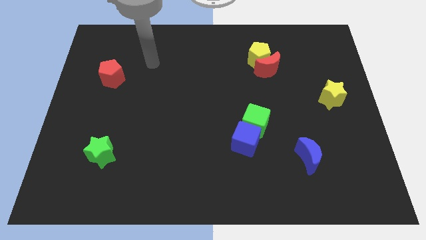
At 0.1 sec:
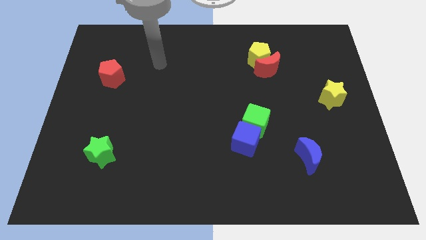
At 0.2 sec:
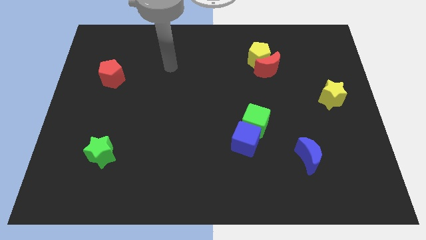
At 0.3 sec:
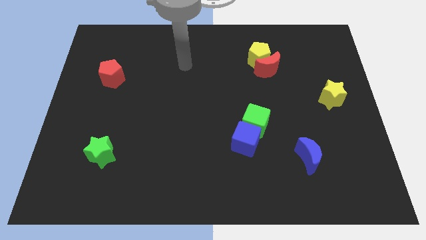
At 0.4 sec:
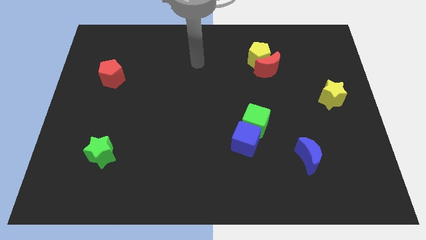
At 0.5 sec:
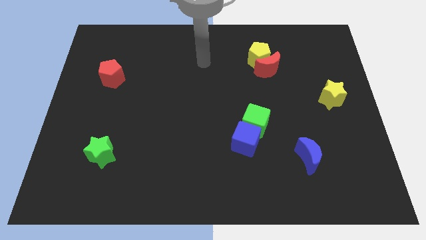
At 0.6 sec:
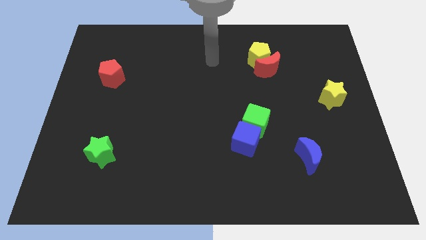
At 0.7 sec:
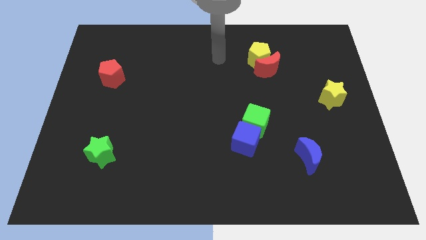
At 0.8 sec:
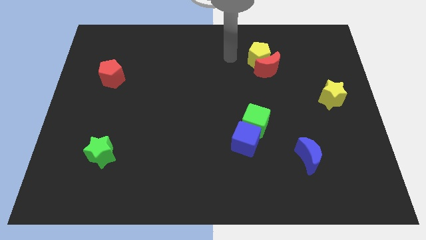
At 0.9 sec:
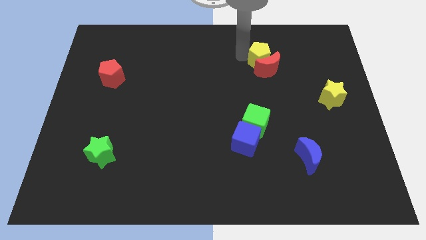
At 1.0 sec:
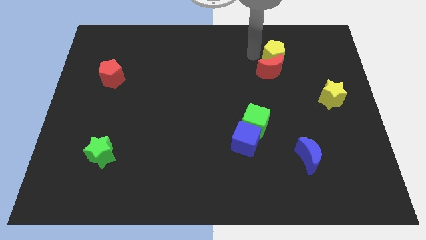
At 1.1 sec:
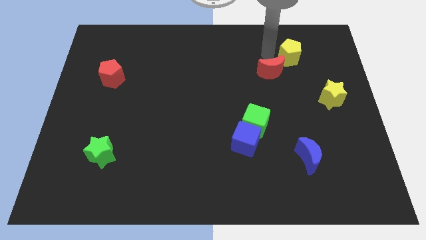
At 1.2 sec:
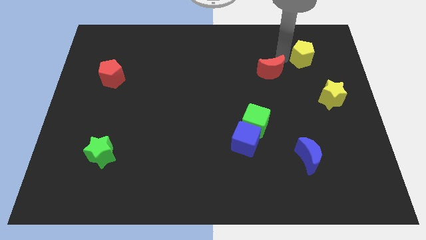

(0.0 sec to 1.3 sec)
pull the red moon apart from the yellow pentagon

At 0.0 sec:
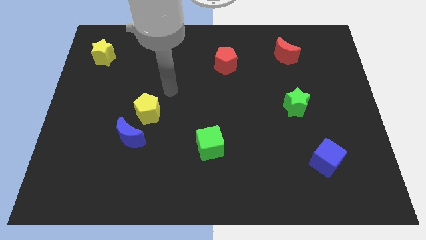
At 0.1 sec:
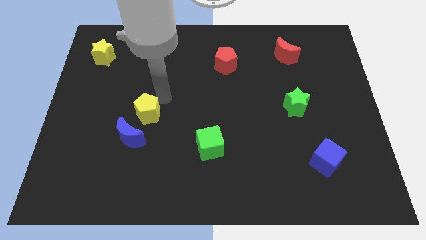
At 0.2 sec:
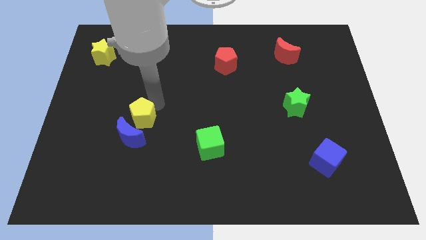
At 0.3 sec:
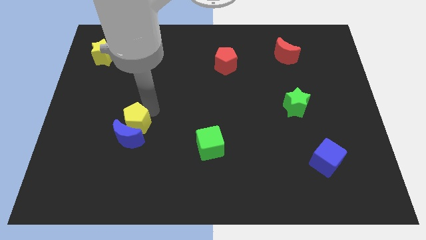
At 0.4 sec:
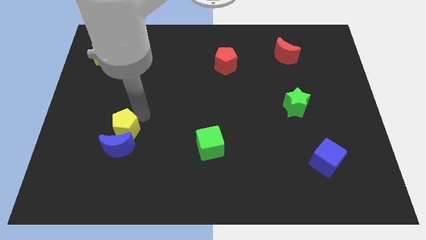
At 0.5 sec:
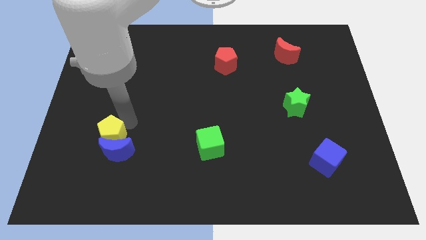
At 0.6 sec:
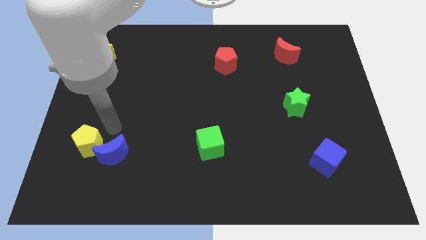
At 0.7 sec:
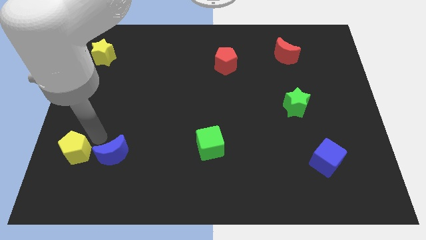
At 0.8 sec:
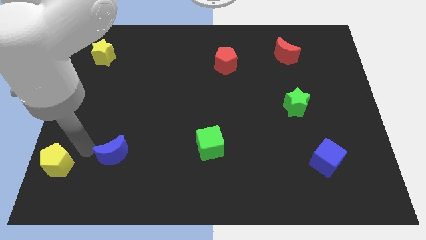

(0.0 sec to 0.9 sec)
pull the blue moon apart from the yellow pentagon

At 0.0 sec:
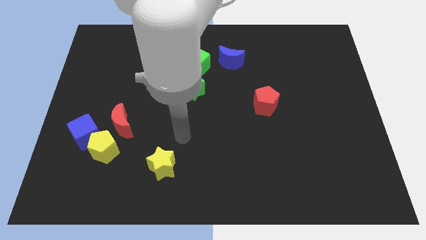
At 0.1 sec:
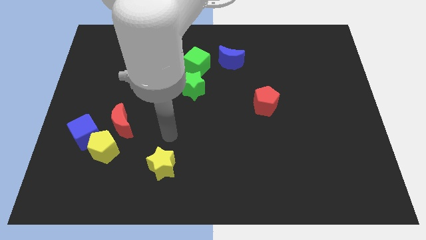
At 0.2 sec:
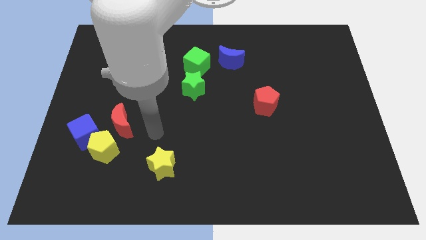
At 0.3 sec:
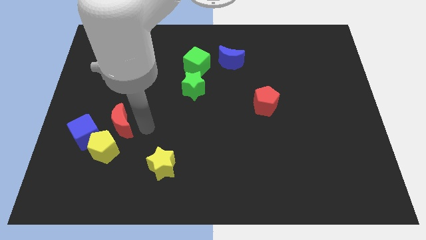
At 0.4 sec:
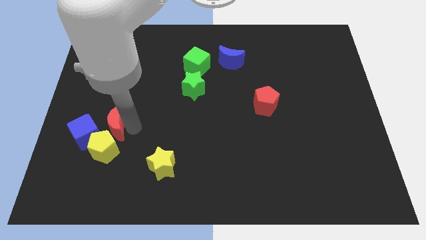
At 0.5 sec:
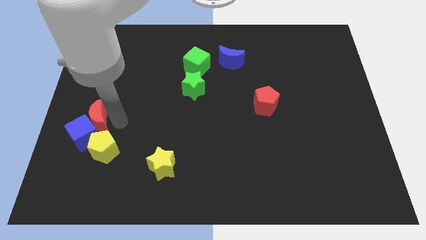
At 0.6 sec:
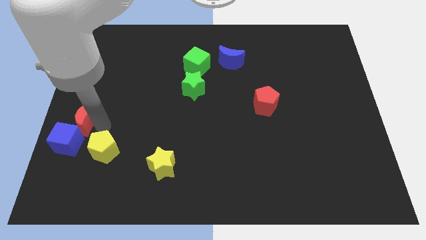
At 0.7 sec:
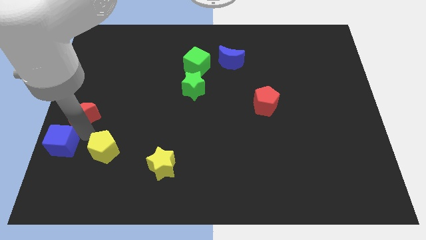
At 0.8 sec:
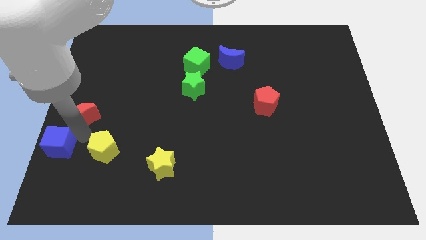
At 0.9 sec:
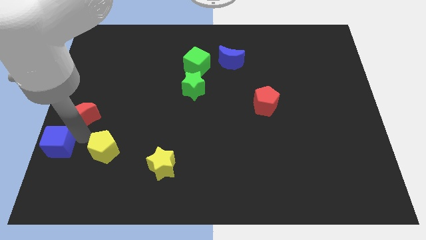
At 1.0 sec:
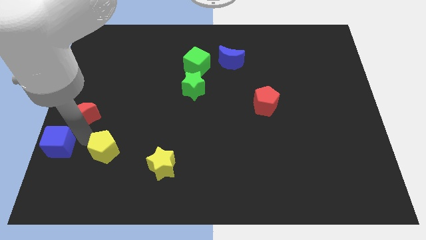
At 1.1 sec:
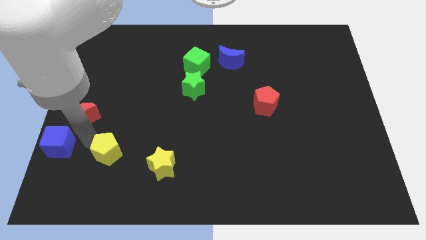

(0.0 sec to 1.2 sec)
move the yellow pentagon away from the blue cube and red moon

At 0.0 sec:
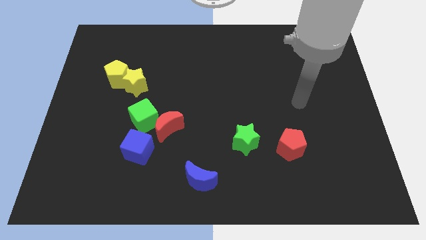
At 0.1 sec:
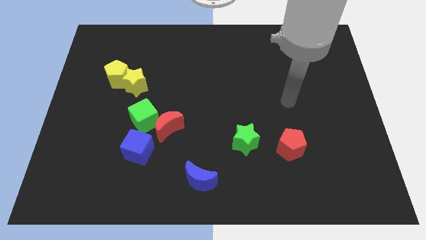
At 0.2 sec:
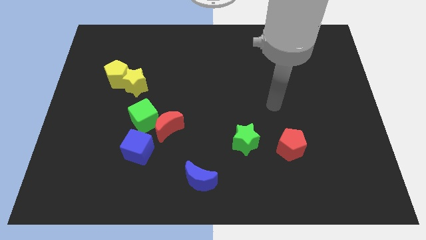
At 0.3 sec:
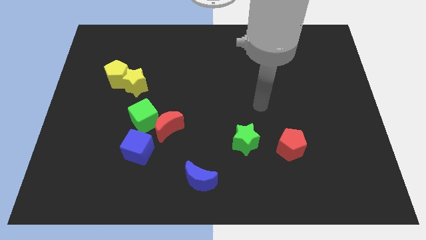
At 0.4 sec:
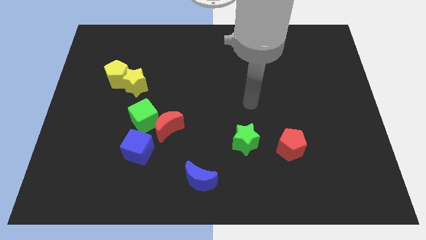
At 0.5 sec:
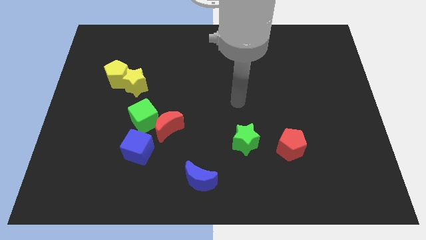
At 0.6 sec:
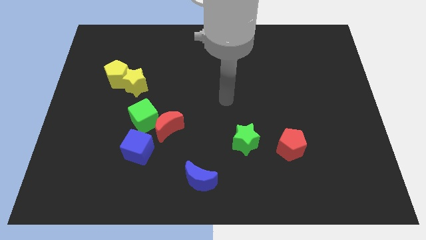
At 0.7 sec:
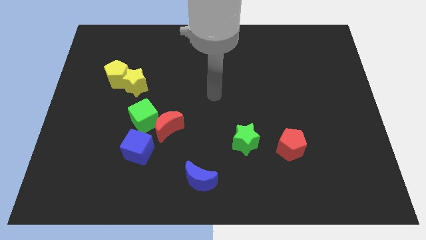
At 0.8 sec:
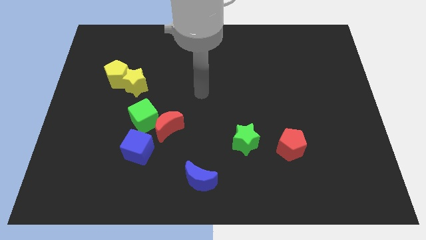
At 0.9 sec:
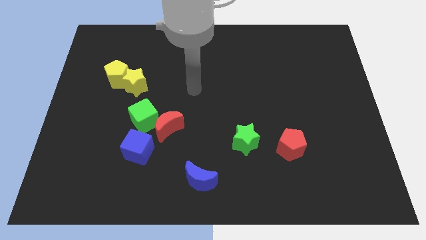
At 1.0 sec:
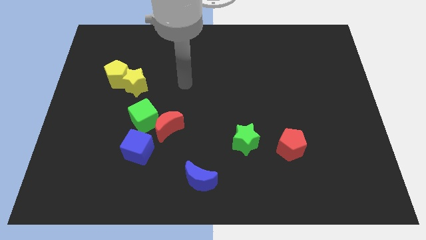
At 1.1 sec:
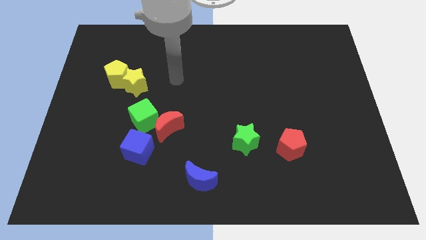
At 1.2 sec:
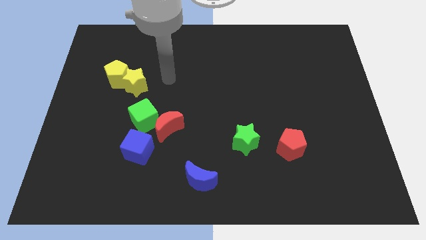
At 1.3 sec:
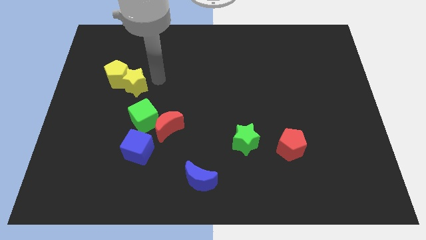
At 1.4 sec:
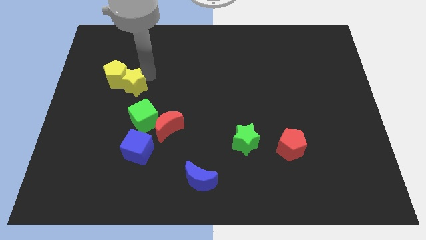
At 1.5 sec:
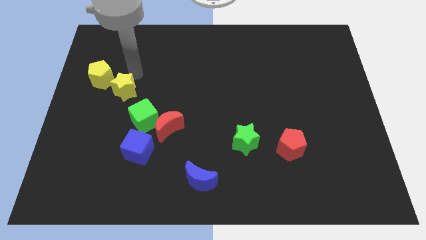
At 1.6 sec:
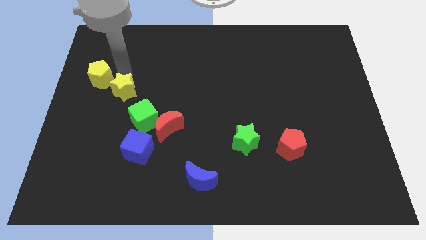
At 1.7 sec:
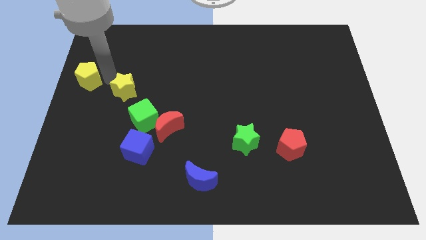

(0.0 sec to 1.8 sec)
pull the yellow star apart from the yellow pentagon

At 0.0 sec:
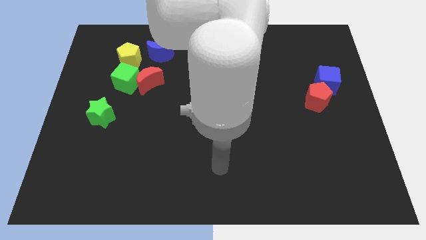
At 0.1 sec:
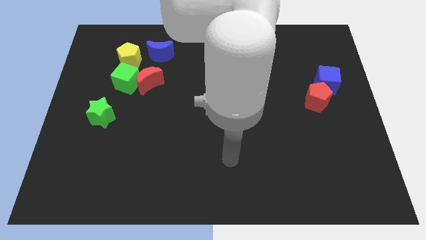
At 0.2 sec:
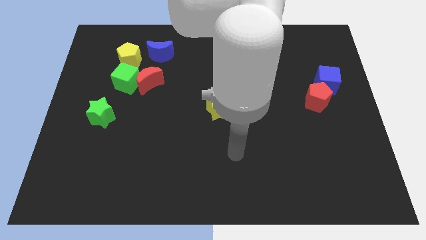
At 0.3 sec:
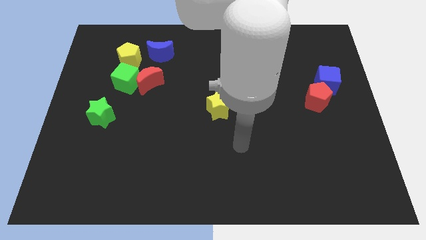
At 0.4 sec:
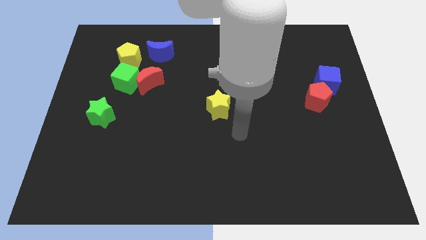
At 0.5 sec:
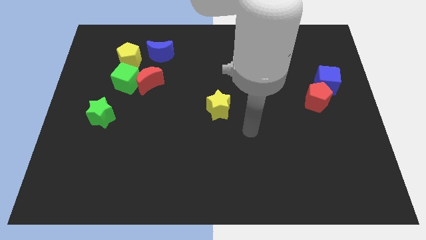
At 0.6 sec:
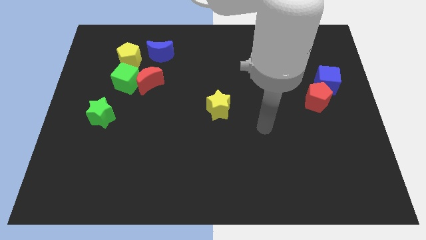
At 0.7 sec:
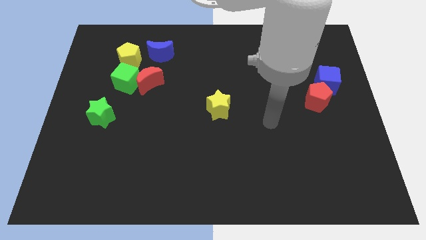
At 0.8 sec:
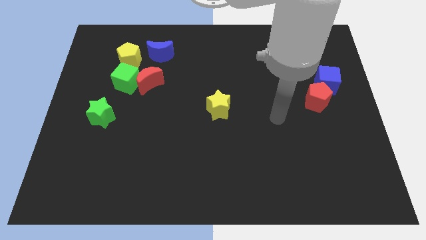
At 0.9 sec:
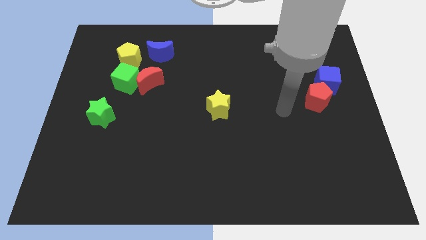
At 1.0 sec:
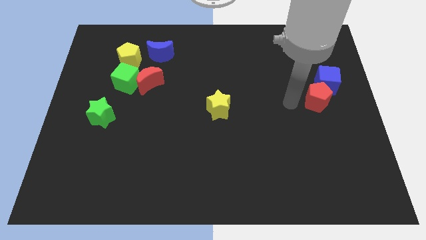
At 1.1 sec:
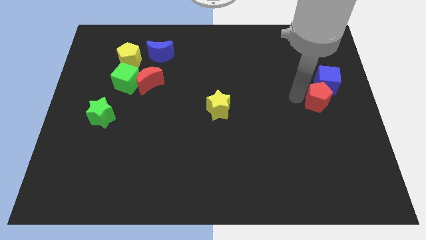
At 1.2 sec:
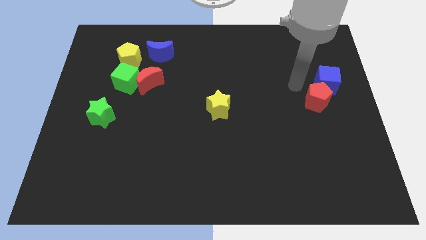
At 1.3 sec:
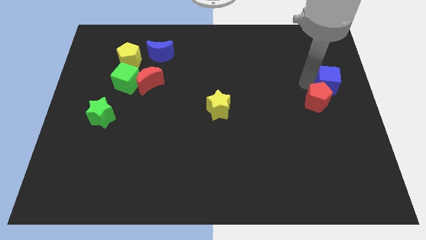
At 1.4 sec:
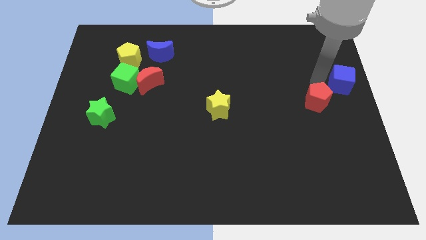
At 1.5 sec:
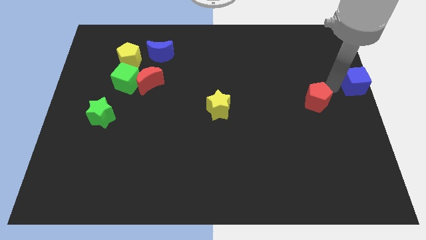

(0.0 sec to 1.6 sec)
move the red pentagon away from the blue cube

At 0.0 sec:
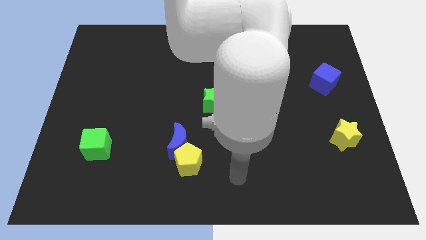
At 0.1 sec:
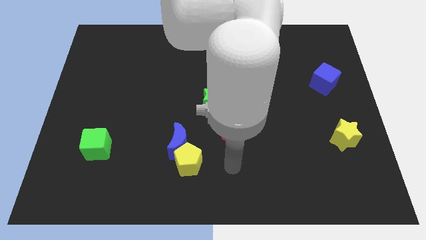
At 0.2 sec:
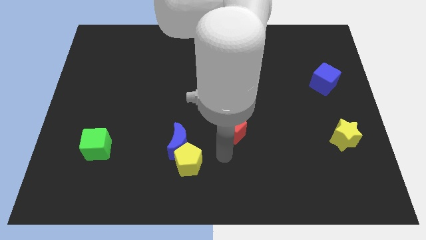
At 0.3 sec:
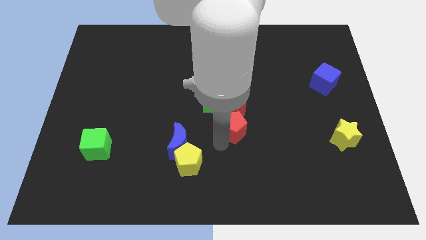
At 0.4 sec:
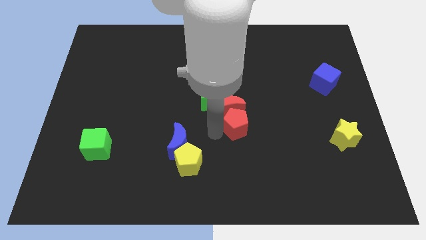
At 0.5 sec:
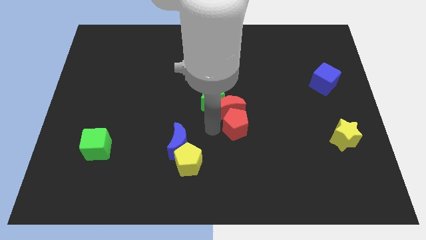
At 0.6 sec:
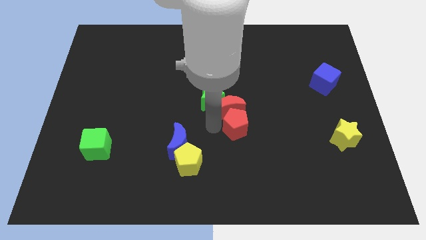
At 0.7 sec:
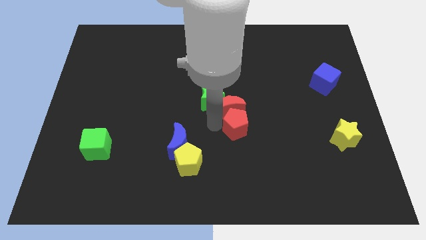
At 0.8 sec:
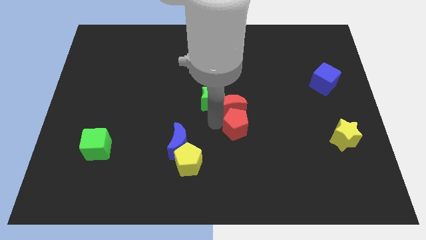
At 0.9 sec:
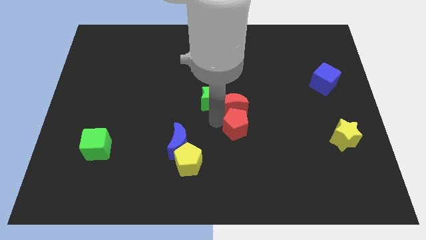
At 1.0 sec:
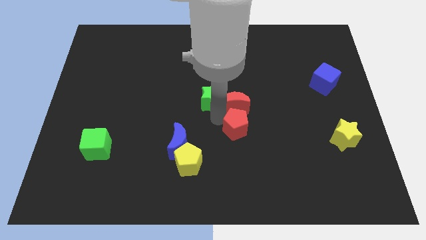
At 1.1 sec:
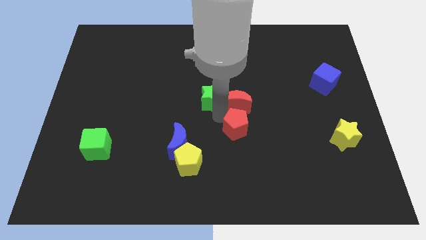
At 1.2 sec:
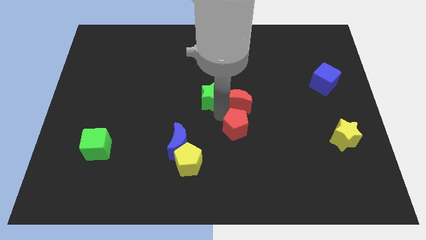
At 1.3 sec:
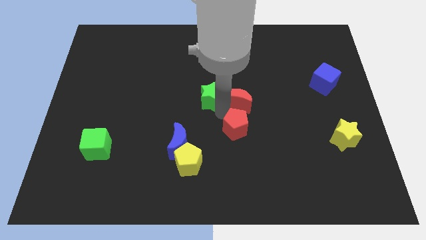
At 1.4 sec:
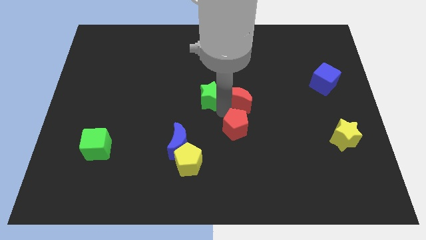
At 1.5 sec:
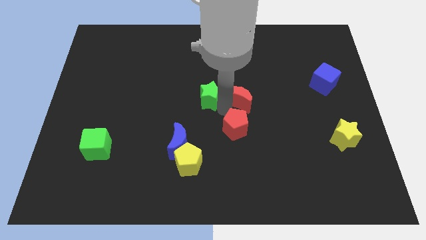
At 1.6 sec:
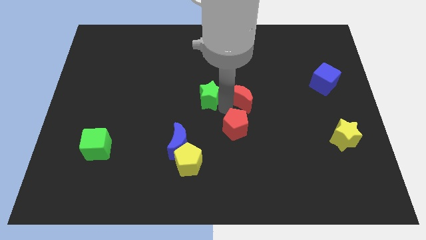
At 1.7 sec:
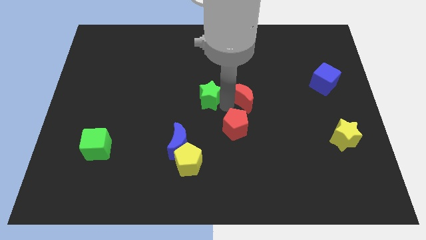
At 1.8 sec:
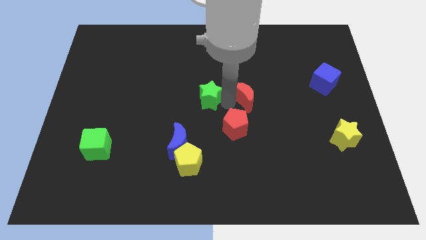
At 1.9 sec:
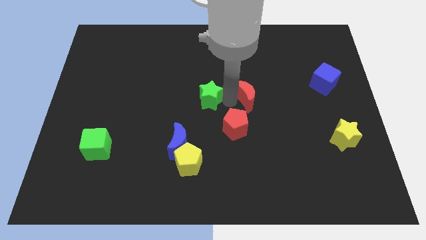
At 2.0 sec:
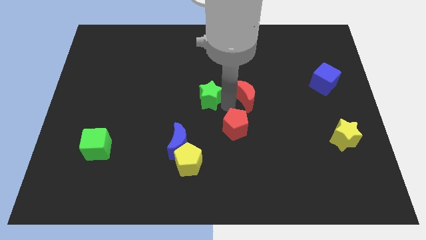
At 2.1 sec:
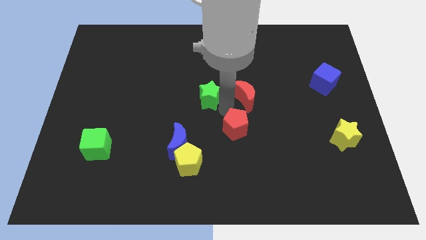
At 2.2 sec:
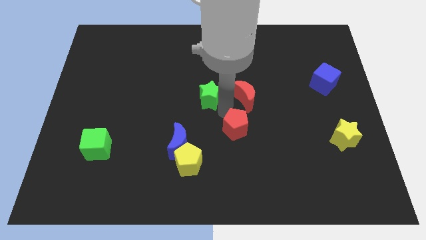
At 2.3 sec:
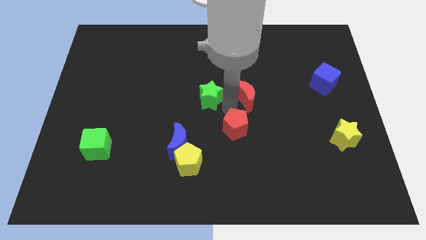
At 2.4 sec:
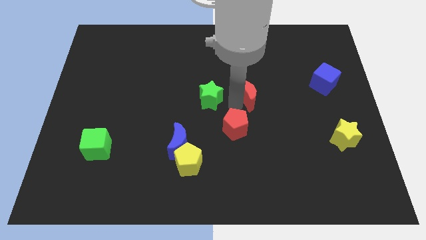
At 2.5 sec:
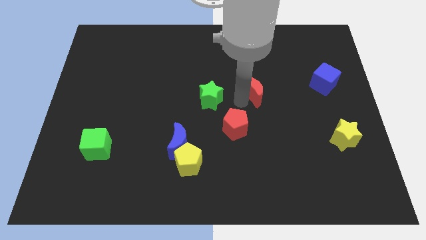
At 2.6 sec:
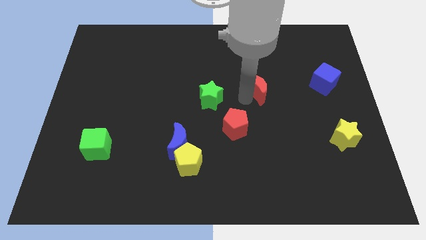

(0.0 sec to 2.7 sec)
move the red moon away from the green star and red pentagon
